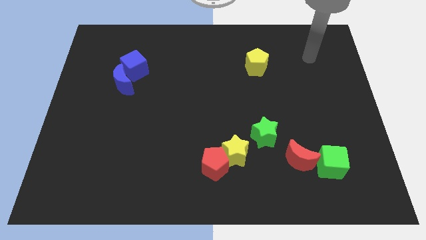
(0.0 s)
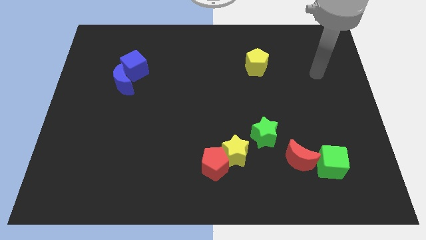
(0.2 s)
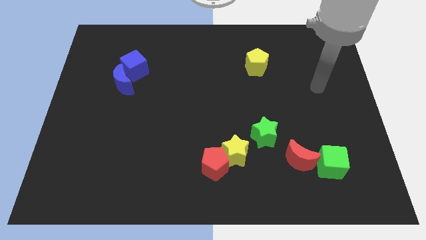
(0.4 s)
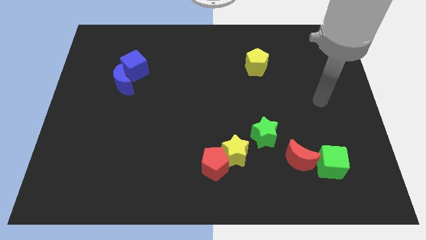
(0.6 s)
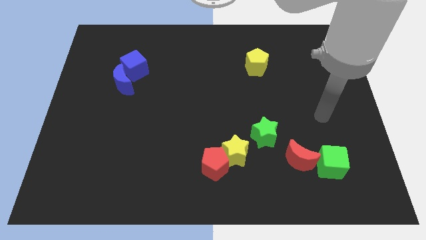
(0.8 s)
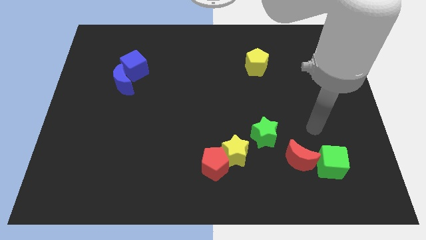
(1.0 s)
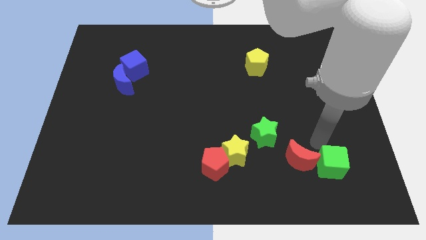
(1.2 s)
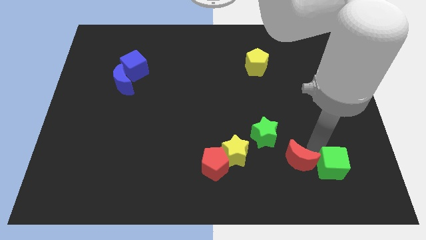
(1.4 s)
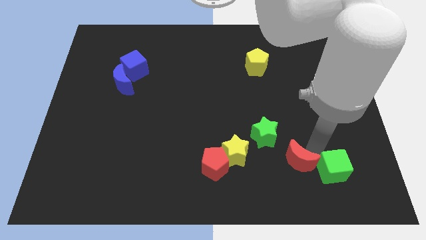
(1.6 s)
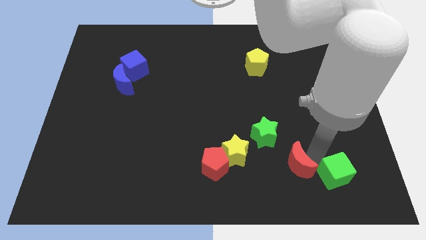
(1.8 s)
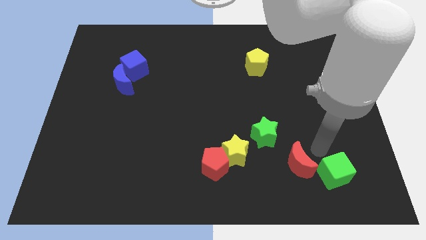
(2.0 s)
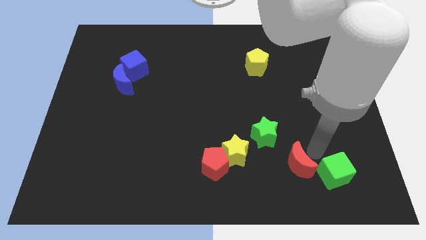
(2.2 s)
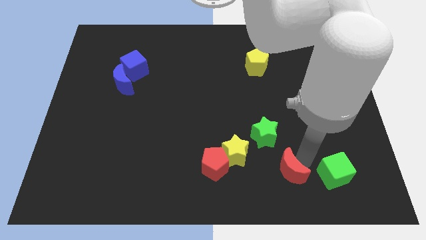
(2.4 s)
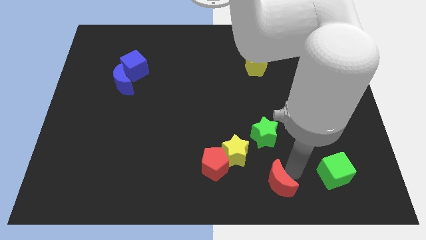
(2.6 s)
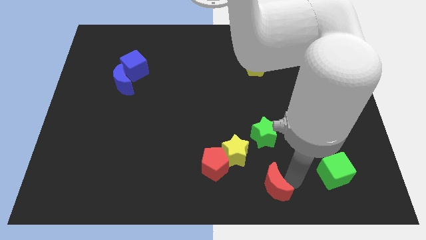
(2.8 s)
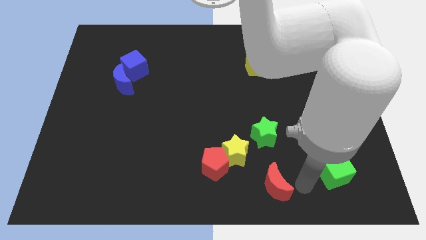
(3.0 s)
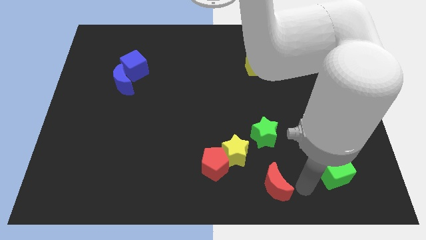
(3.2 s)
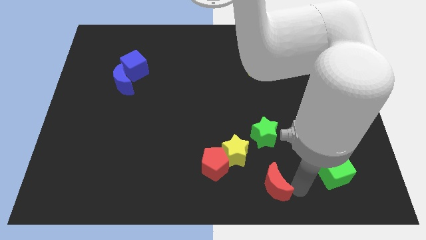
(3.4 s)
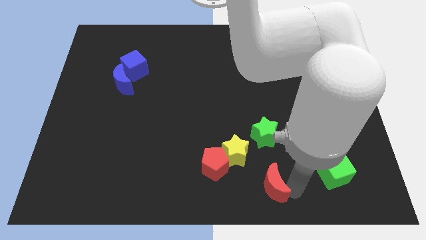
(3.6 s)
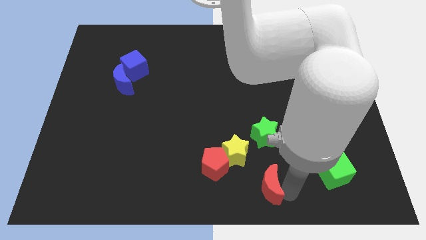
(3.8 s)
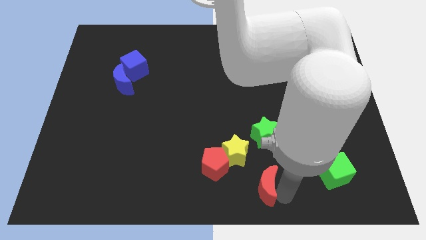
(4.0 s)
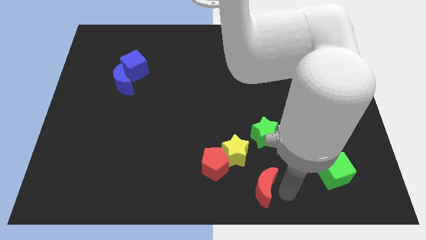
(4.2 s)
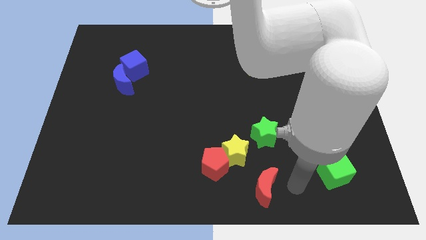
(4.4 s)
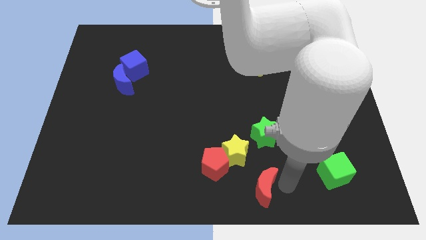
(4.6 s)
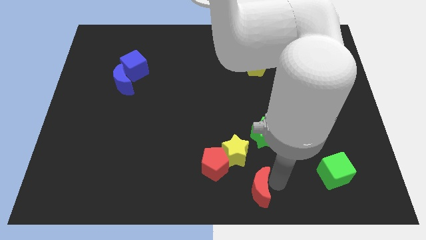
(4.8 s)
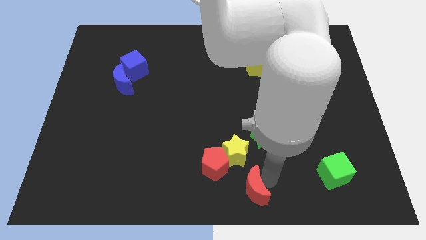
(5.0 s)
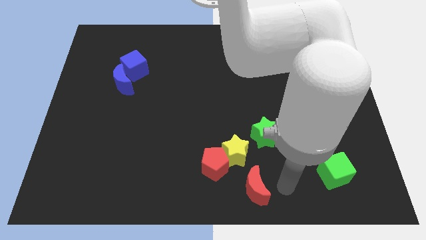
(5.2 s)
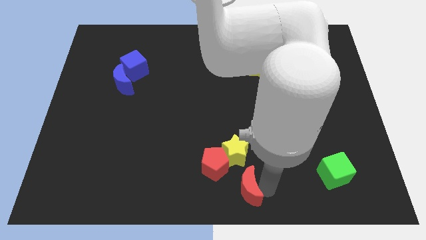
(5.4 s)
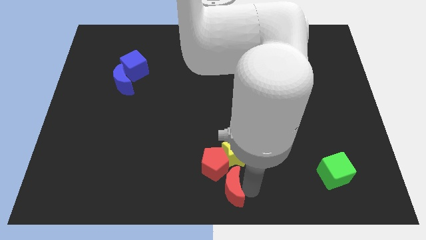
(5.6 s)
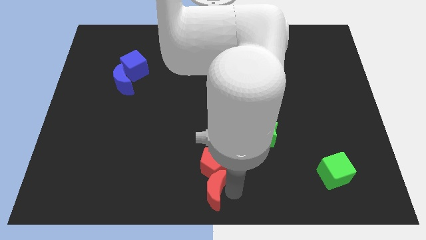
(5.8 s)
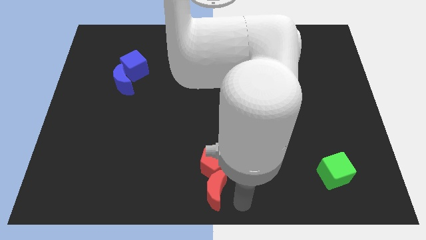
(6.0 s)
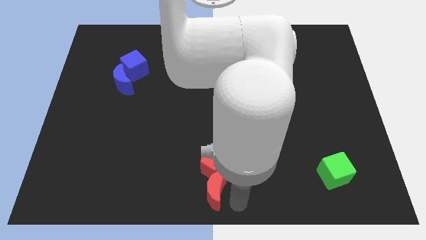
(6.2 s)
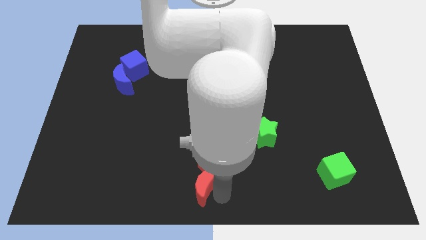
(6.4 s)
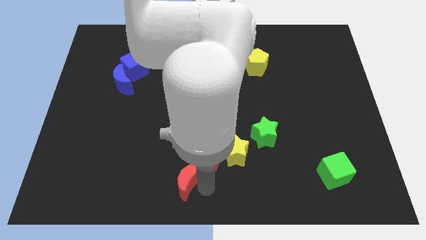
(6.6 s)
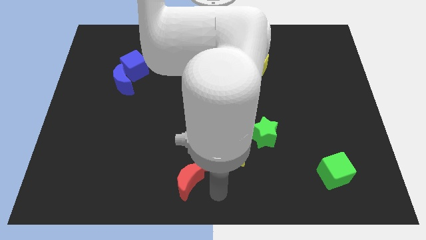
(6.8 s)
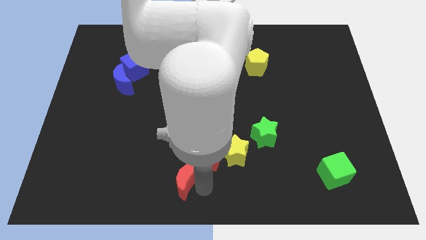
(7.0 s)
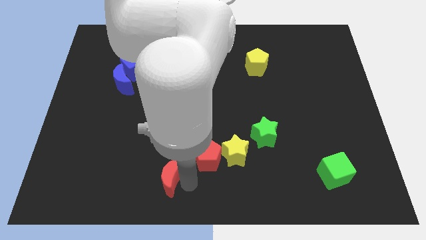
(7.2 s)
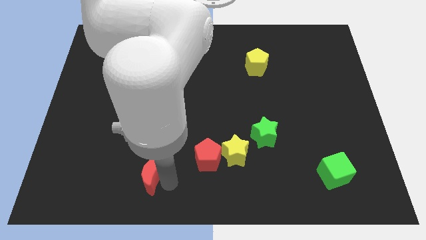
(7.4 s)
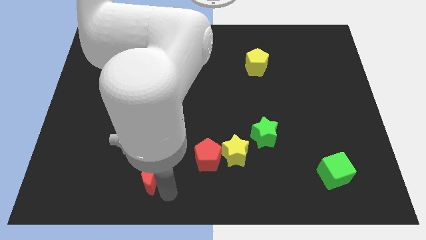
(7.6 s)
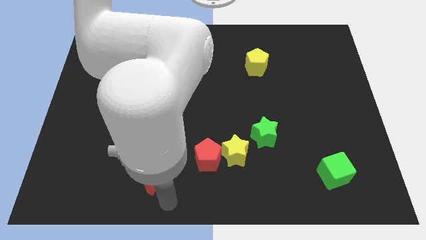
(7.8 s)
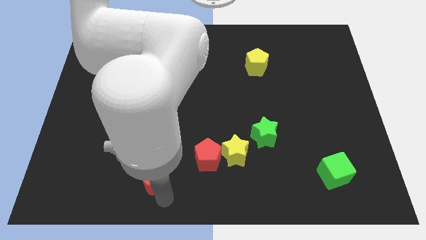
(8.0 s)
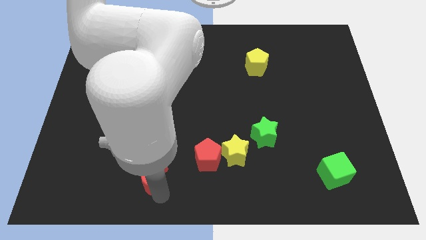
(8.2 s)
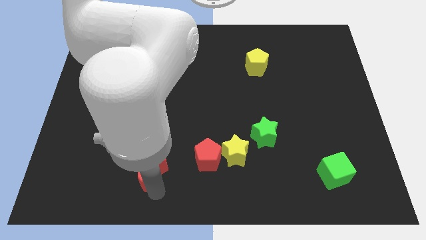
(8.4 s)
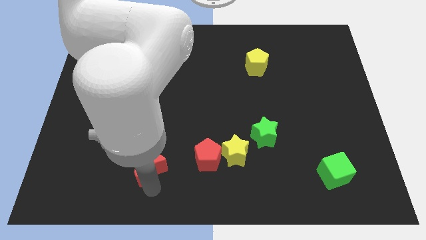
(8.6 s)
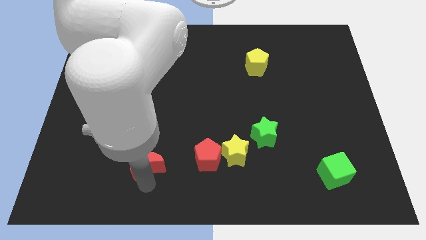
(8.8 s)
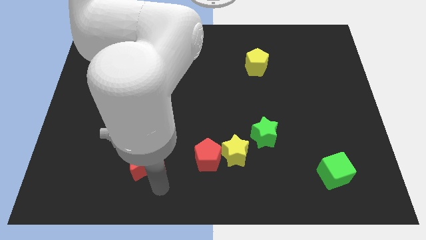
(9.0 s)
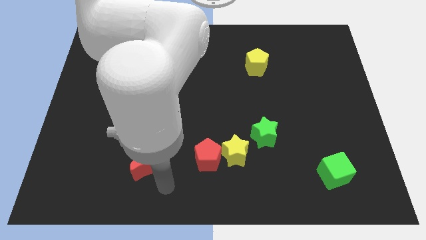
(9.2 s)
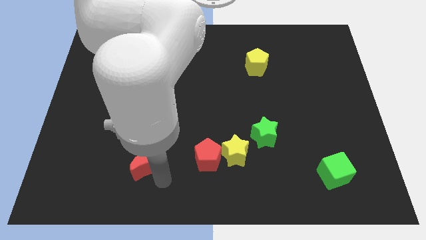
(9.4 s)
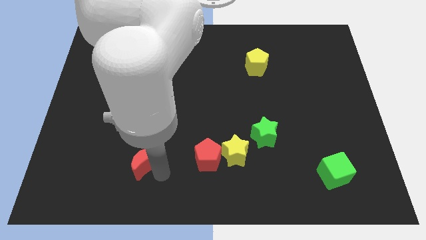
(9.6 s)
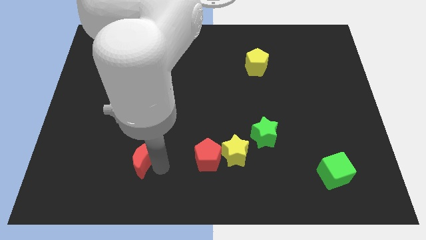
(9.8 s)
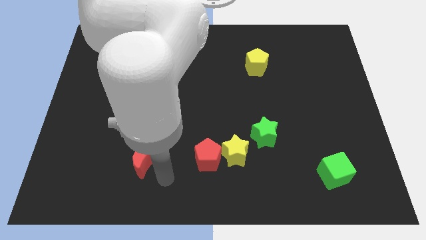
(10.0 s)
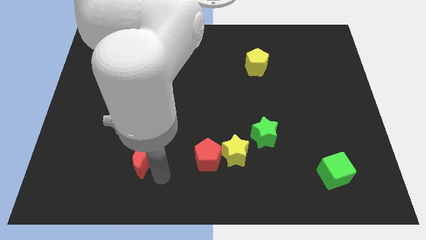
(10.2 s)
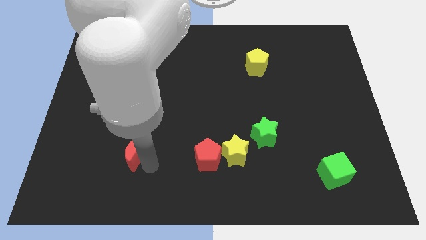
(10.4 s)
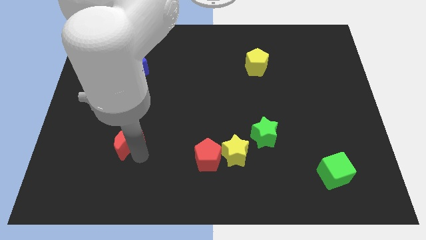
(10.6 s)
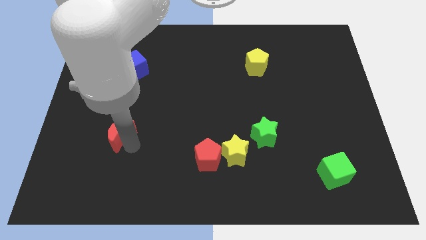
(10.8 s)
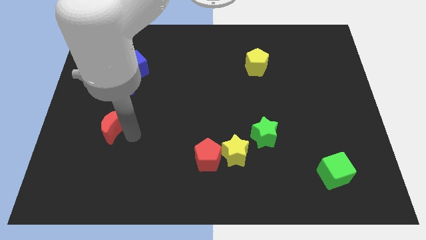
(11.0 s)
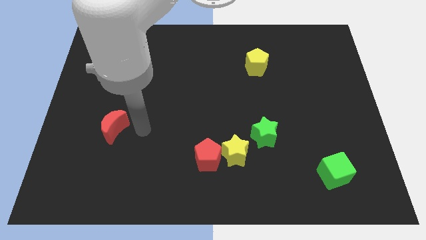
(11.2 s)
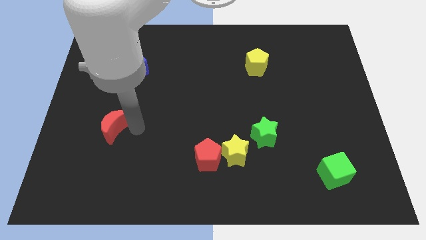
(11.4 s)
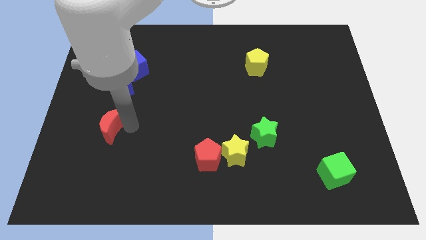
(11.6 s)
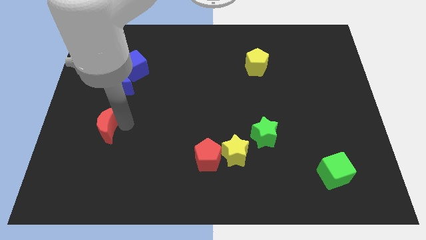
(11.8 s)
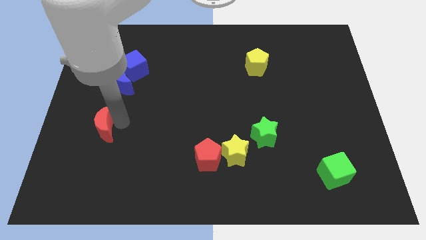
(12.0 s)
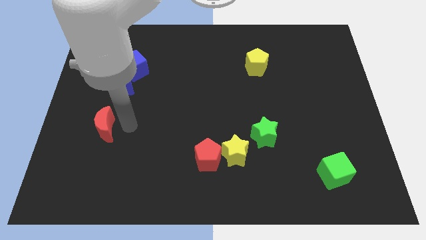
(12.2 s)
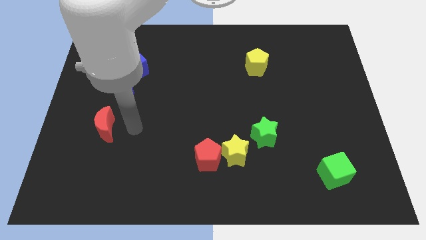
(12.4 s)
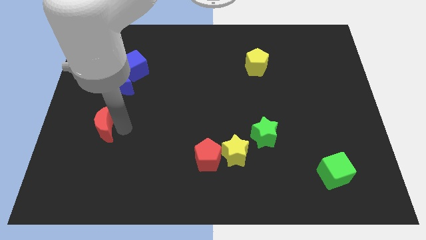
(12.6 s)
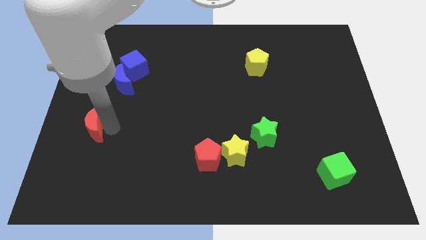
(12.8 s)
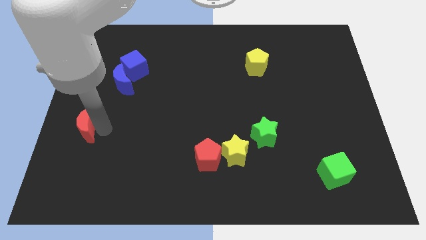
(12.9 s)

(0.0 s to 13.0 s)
put the red moon to the left side

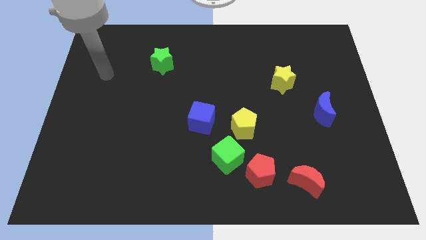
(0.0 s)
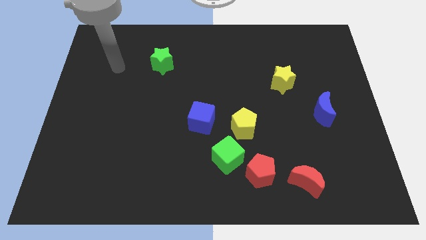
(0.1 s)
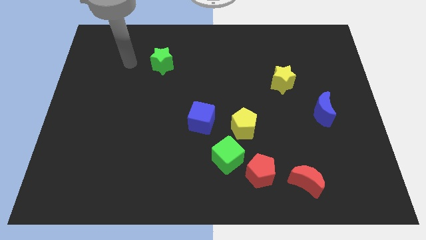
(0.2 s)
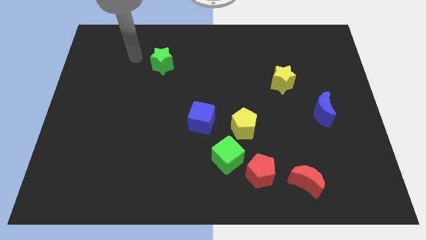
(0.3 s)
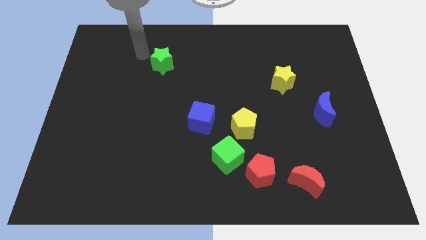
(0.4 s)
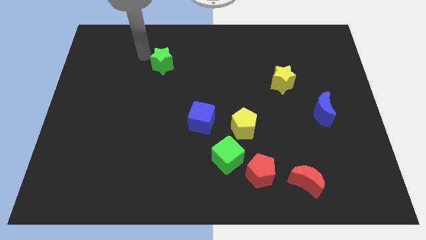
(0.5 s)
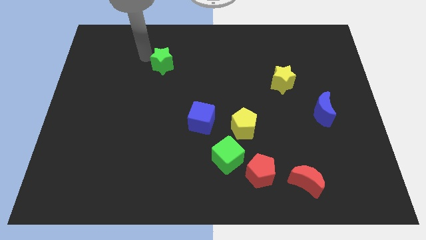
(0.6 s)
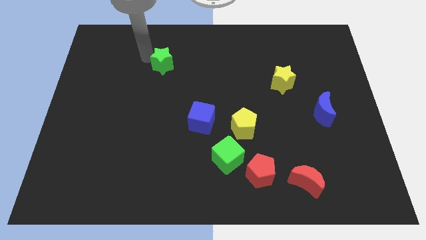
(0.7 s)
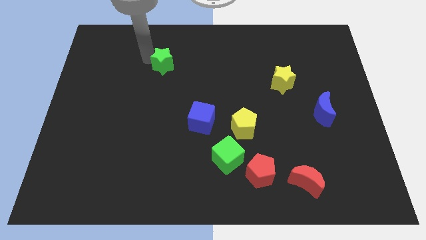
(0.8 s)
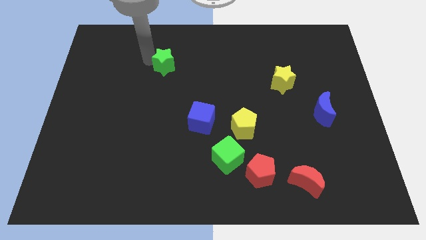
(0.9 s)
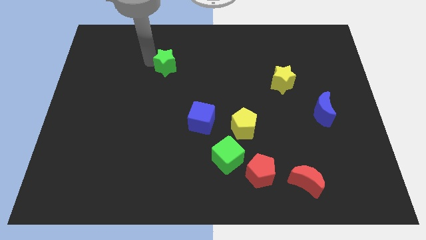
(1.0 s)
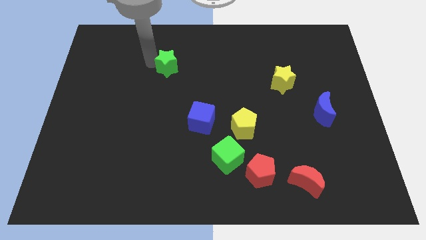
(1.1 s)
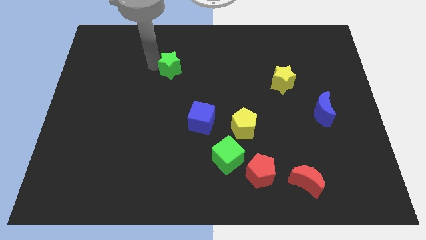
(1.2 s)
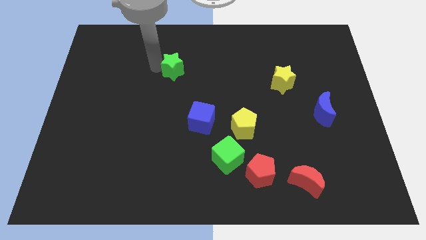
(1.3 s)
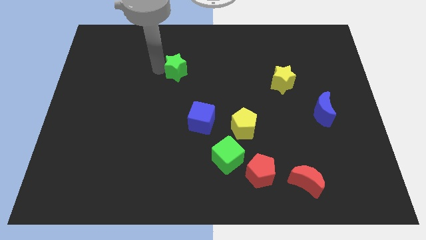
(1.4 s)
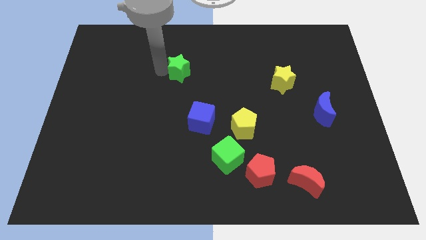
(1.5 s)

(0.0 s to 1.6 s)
put the green star to the center

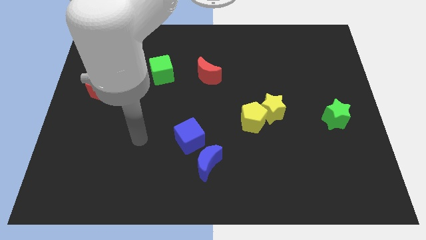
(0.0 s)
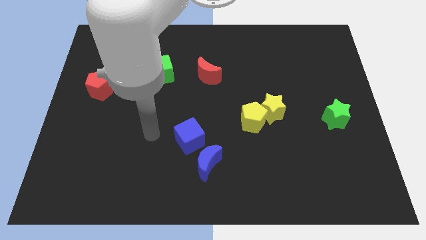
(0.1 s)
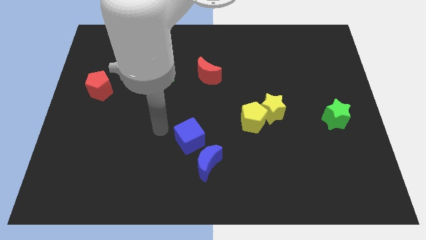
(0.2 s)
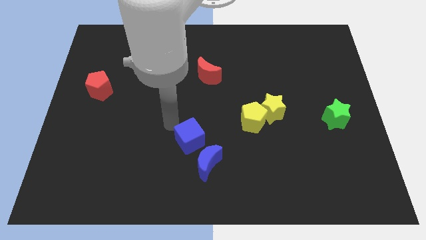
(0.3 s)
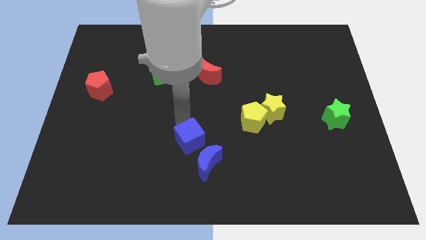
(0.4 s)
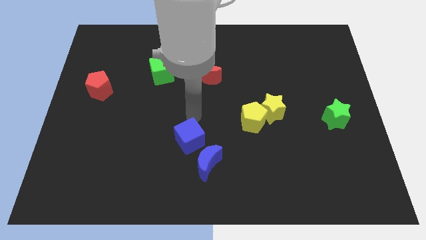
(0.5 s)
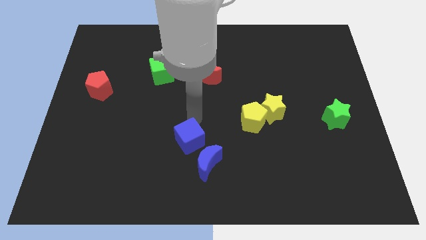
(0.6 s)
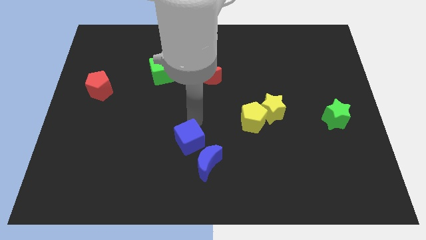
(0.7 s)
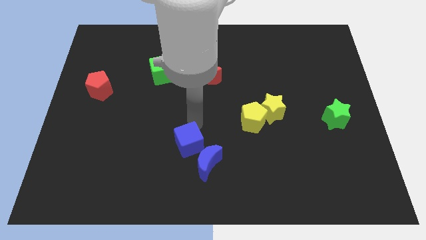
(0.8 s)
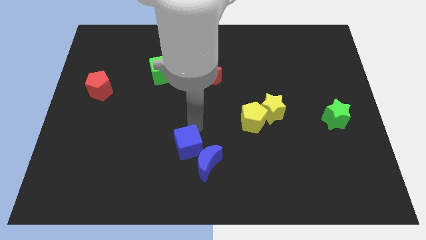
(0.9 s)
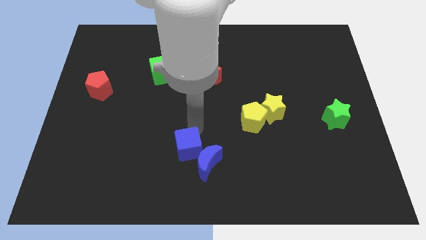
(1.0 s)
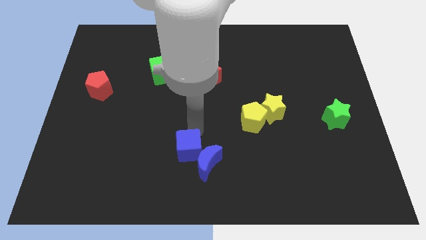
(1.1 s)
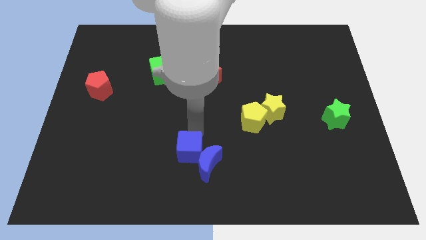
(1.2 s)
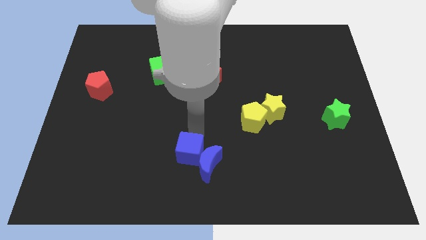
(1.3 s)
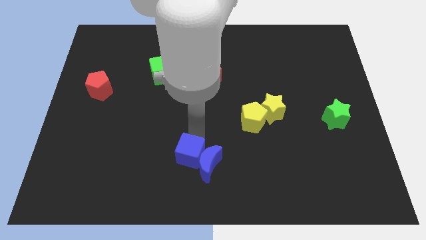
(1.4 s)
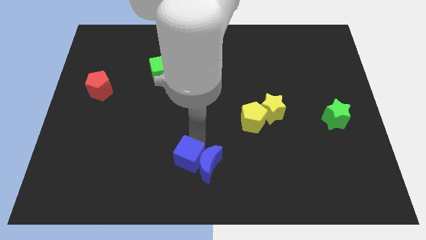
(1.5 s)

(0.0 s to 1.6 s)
put the blue cube to the bottom
